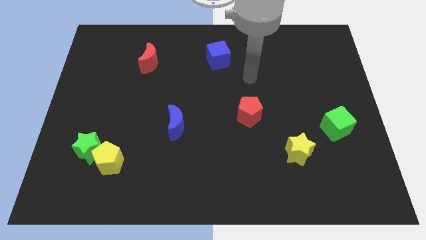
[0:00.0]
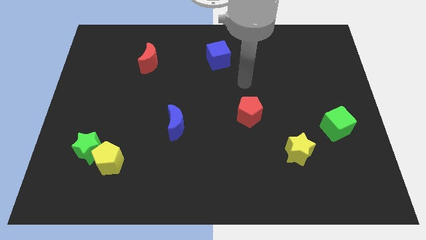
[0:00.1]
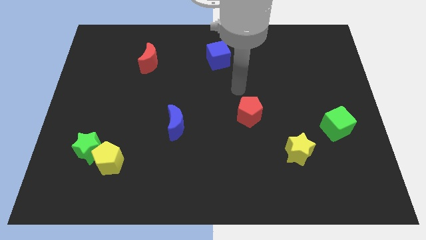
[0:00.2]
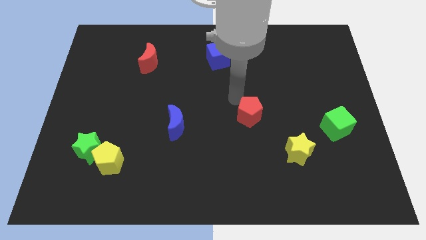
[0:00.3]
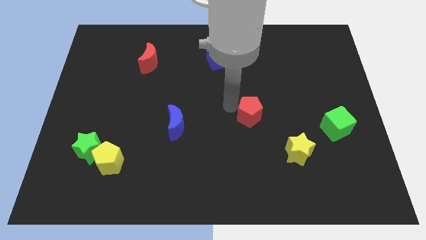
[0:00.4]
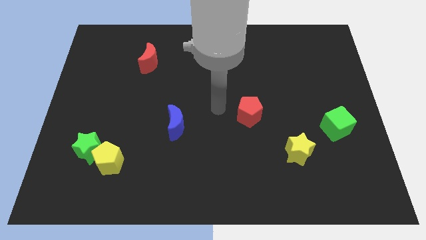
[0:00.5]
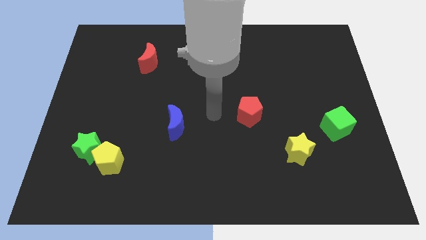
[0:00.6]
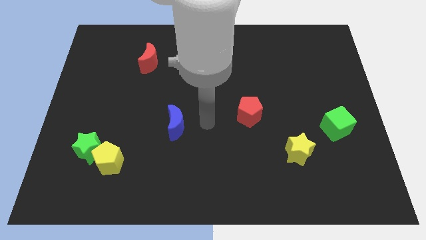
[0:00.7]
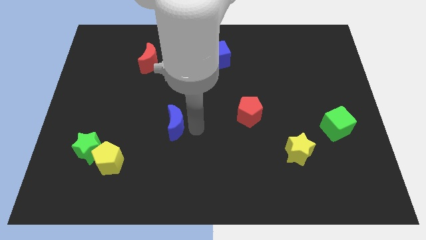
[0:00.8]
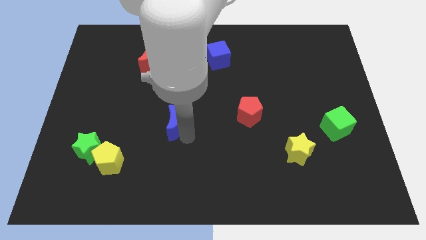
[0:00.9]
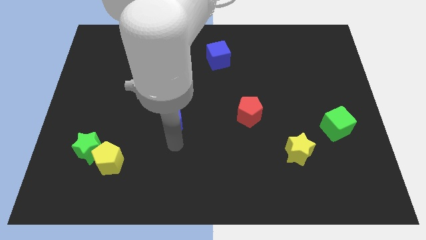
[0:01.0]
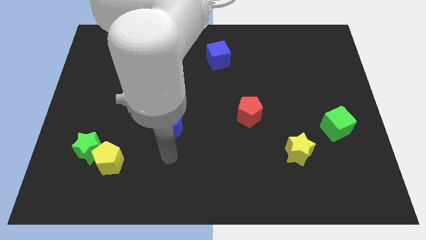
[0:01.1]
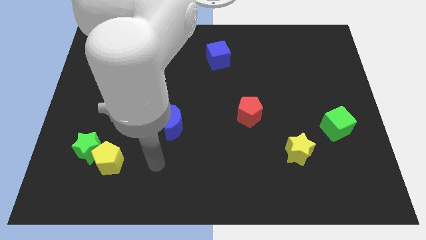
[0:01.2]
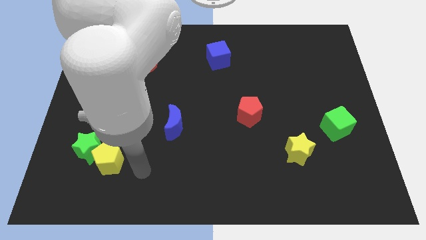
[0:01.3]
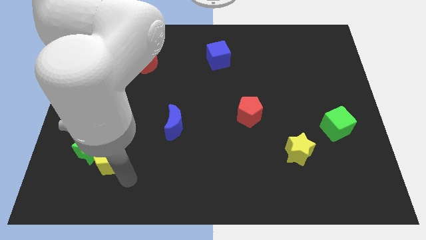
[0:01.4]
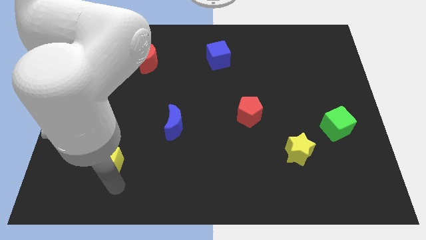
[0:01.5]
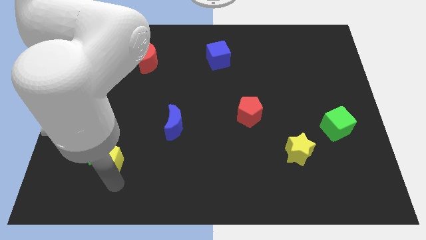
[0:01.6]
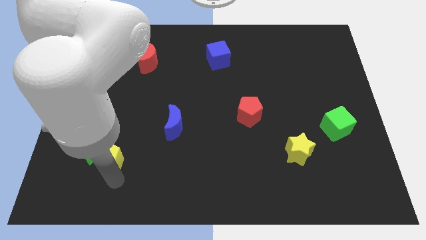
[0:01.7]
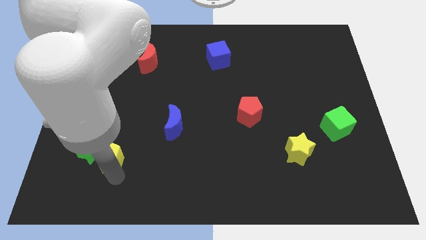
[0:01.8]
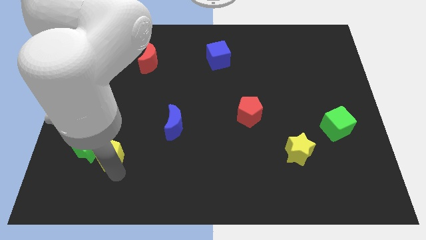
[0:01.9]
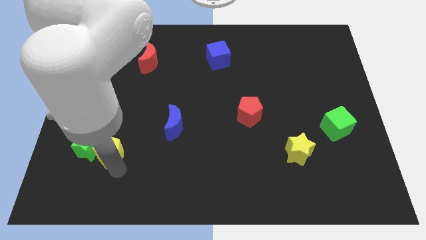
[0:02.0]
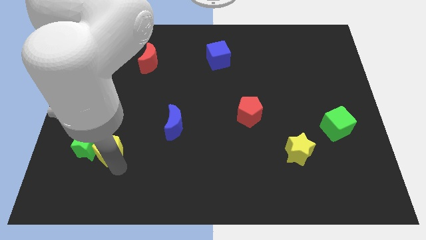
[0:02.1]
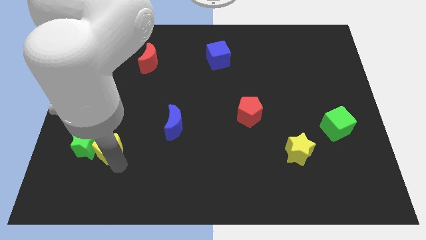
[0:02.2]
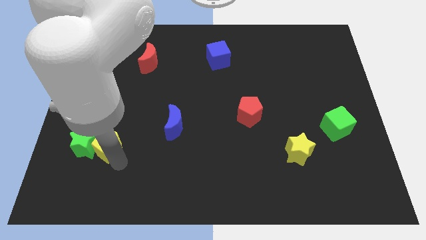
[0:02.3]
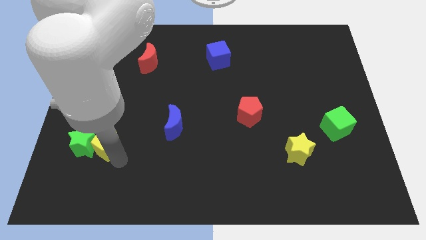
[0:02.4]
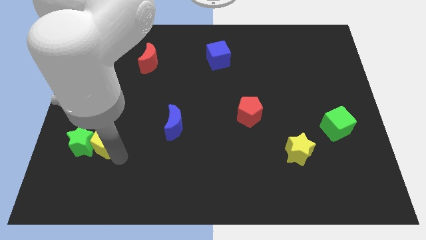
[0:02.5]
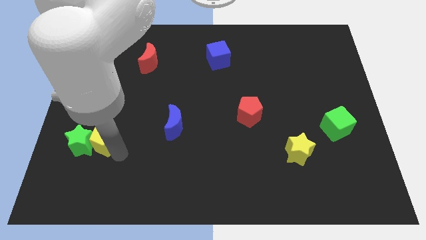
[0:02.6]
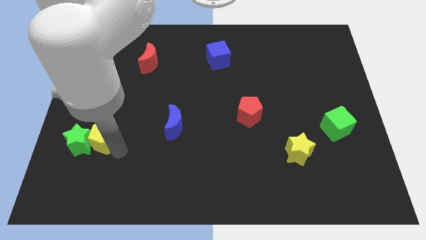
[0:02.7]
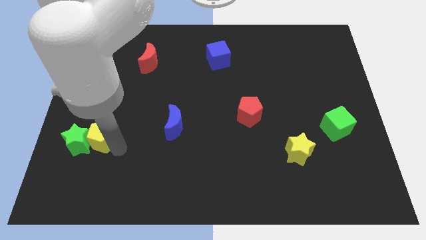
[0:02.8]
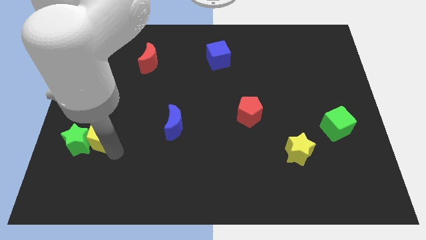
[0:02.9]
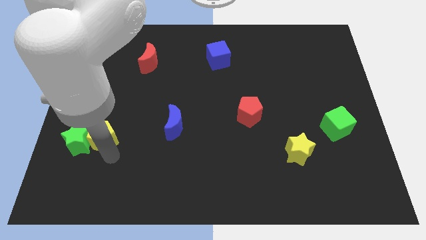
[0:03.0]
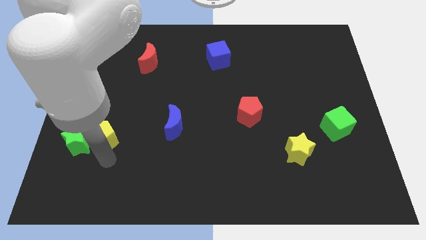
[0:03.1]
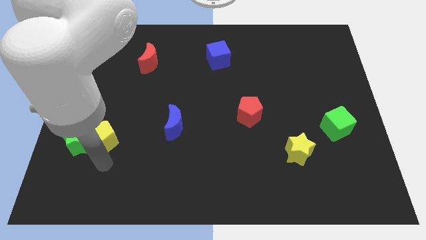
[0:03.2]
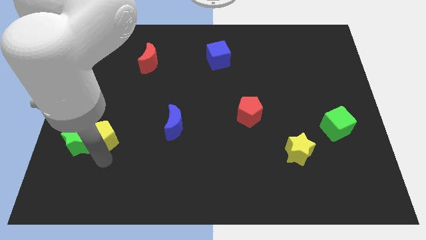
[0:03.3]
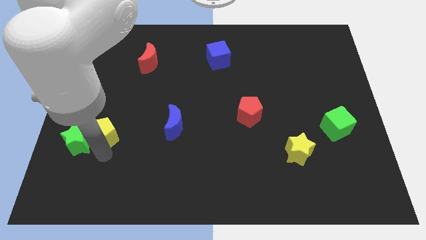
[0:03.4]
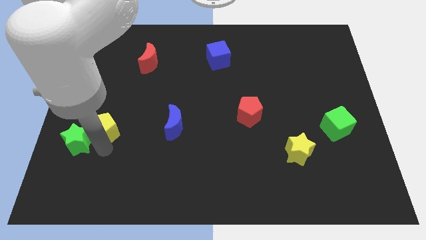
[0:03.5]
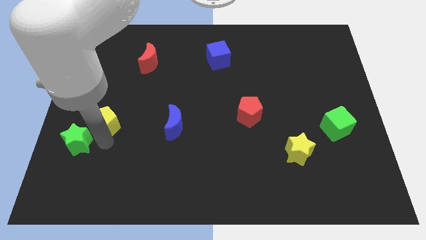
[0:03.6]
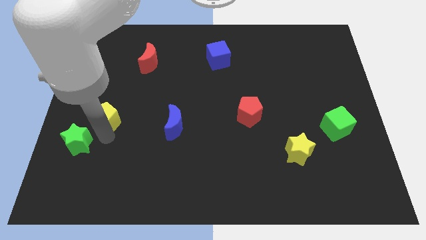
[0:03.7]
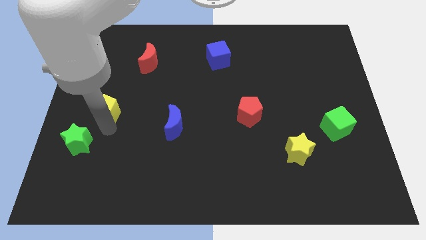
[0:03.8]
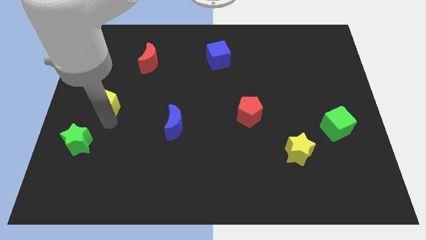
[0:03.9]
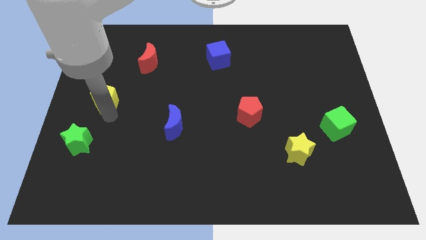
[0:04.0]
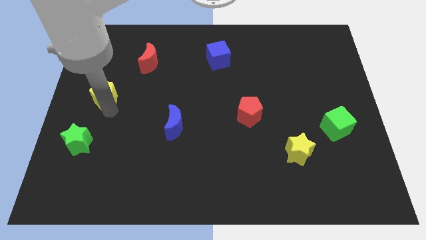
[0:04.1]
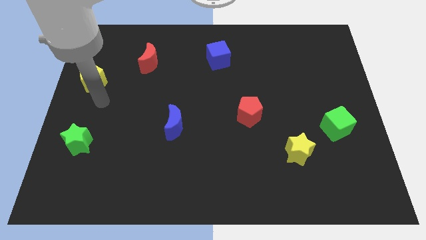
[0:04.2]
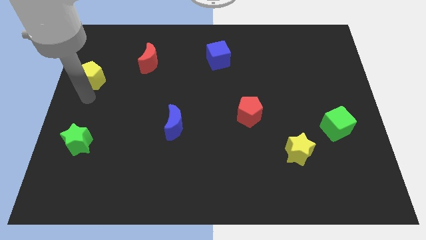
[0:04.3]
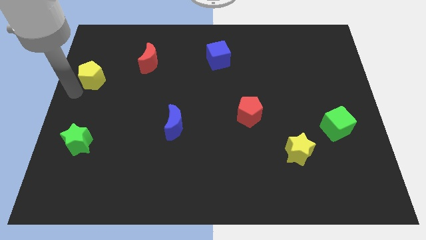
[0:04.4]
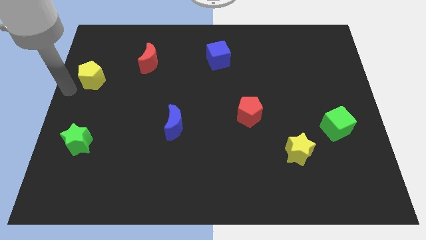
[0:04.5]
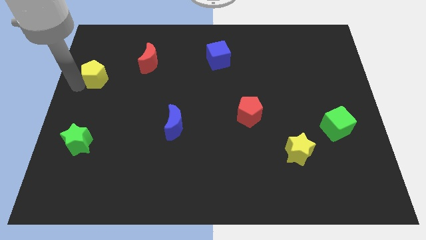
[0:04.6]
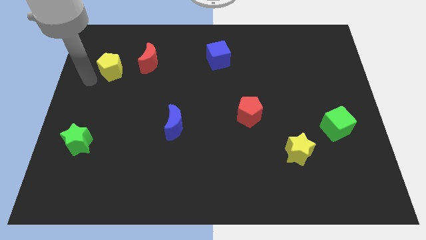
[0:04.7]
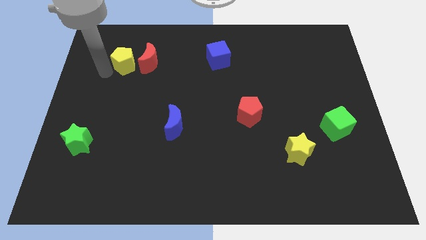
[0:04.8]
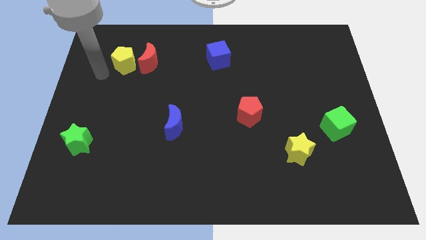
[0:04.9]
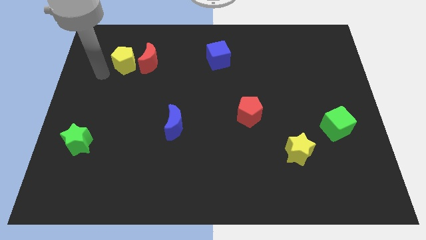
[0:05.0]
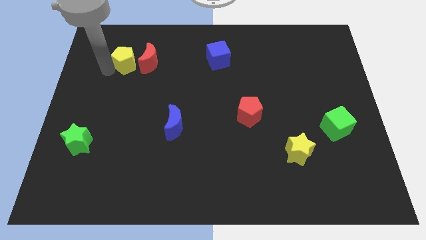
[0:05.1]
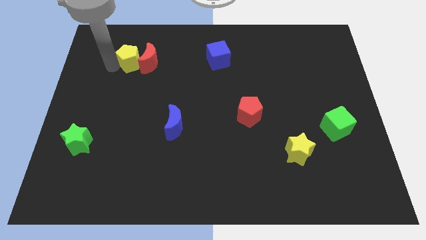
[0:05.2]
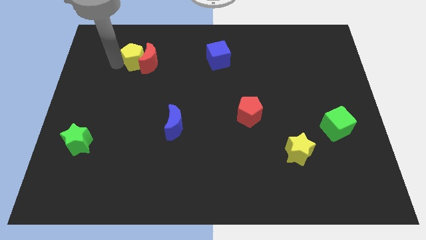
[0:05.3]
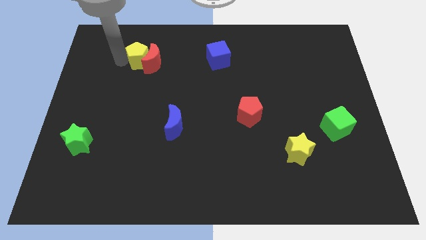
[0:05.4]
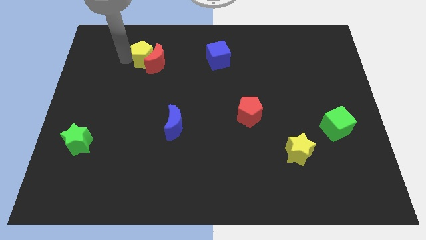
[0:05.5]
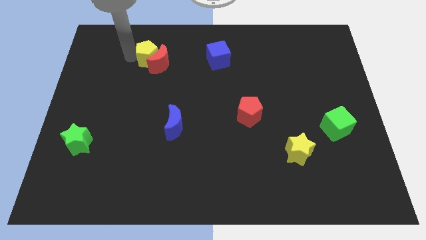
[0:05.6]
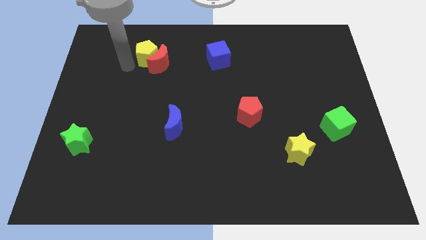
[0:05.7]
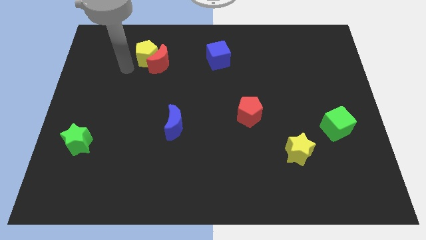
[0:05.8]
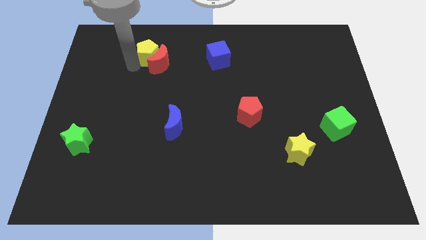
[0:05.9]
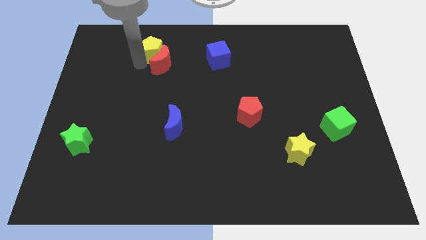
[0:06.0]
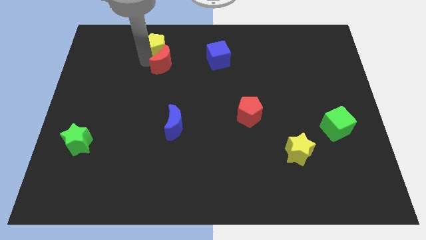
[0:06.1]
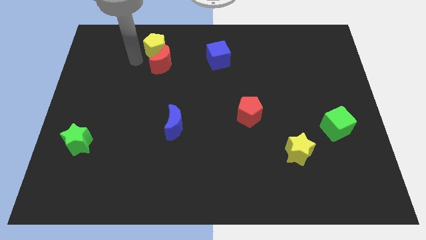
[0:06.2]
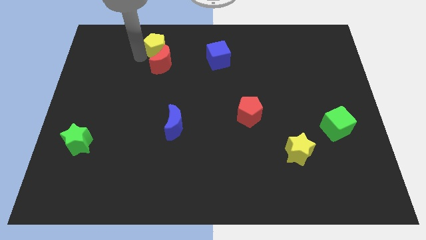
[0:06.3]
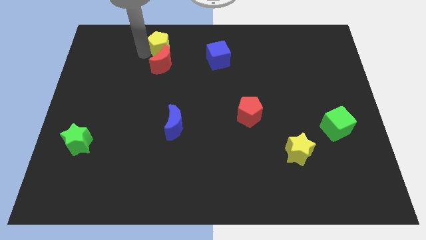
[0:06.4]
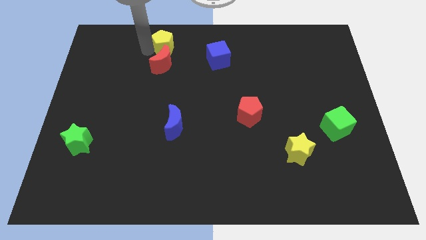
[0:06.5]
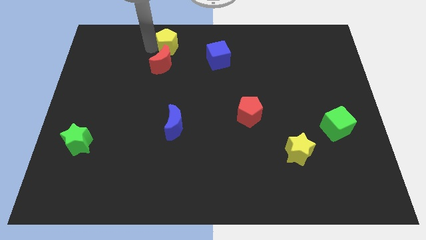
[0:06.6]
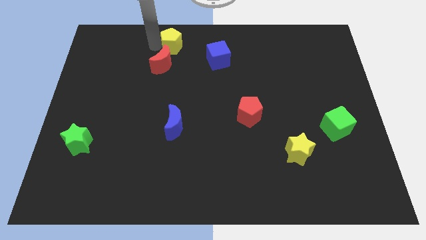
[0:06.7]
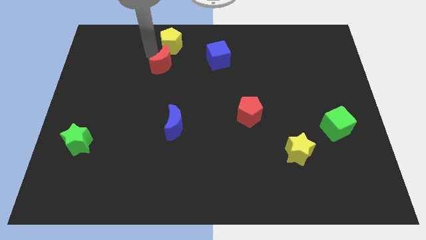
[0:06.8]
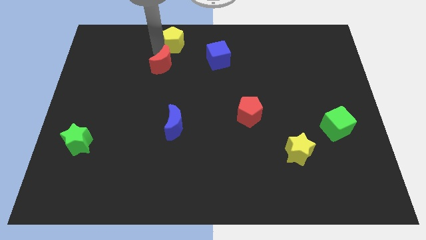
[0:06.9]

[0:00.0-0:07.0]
push the yellow pentagon to the towards your base
